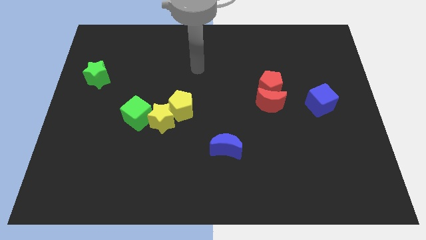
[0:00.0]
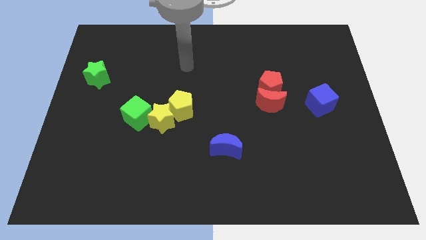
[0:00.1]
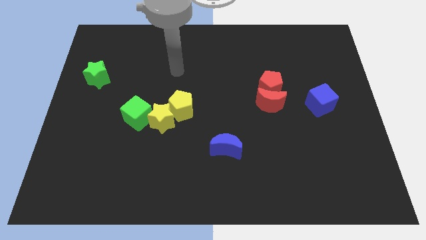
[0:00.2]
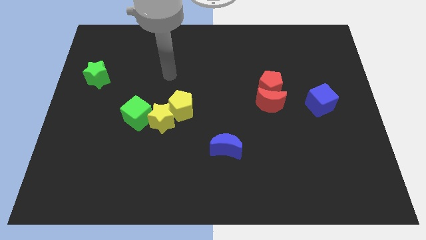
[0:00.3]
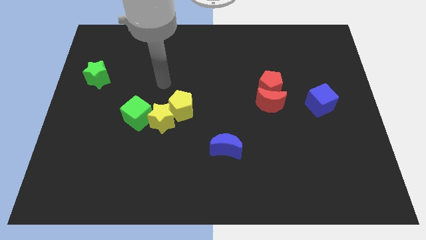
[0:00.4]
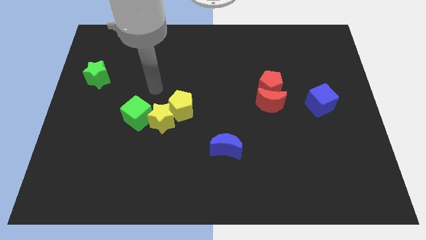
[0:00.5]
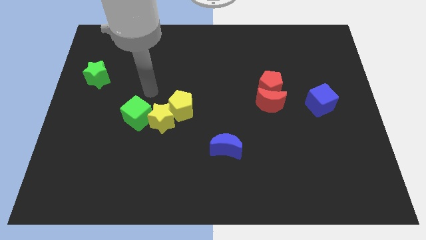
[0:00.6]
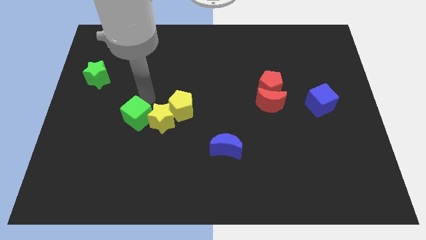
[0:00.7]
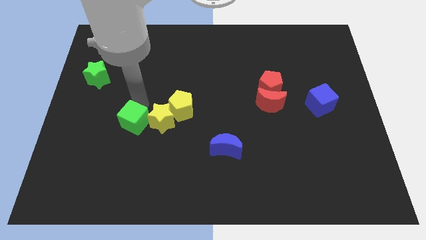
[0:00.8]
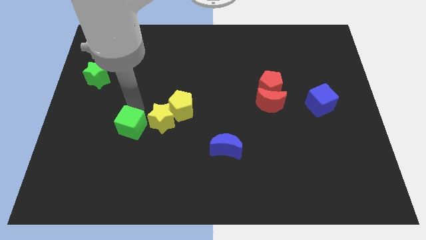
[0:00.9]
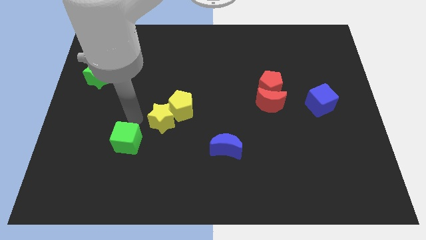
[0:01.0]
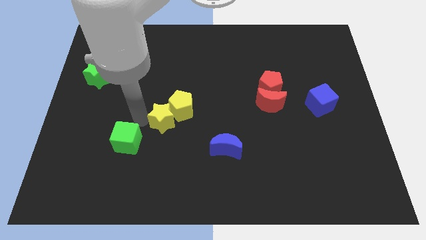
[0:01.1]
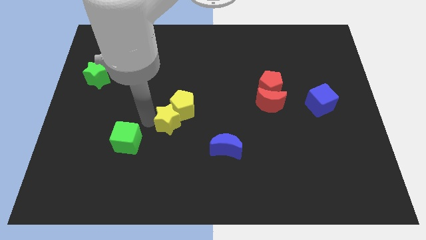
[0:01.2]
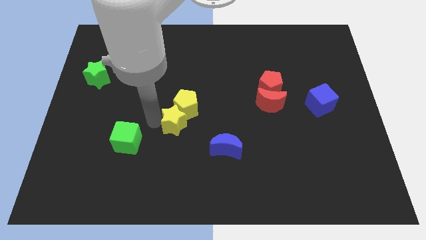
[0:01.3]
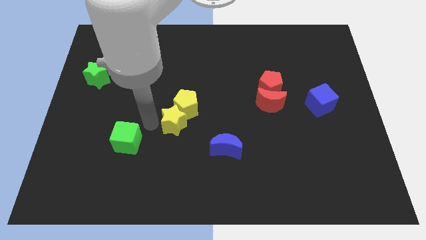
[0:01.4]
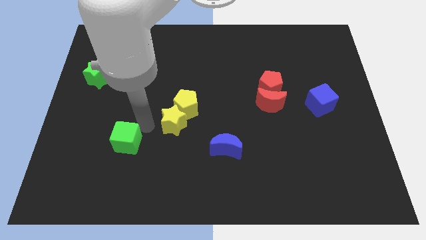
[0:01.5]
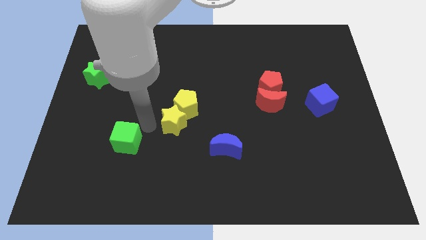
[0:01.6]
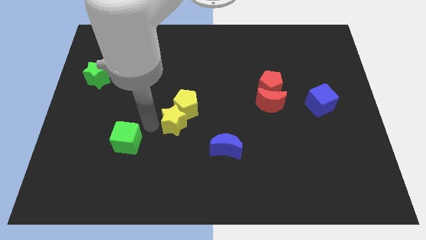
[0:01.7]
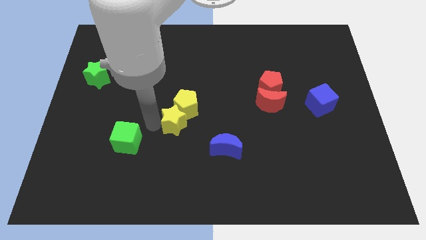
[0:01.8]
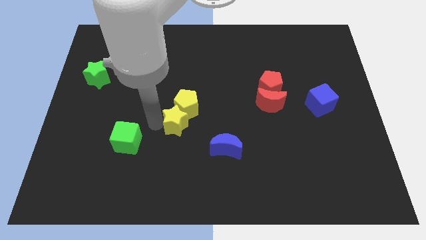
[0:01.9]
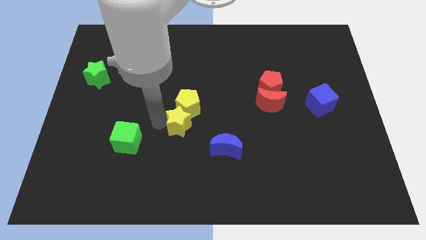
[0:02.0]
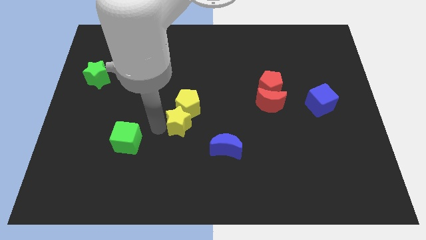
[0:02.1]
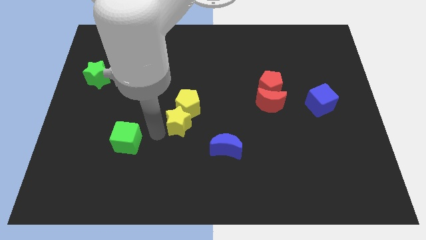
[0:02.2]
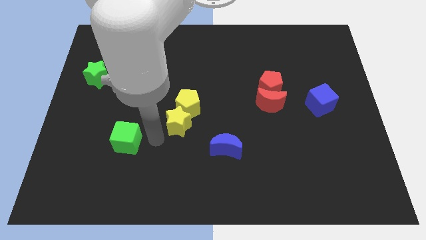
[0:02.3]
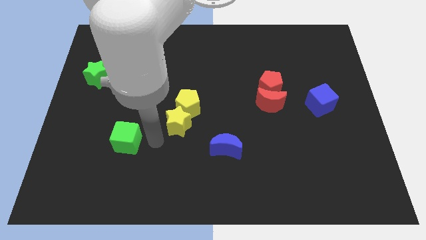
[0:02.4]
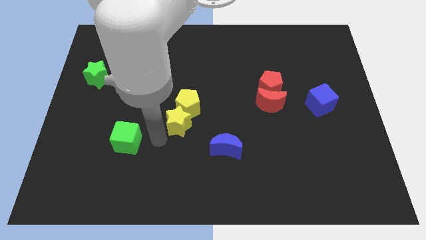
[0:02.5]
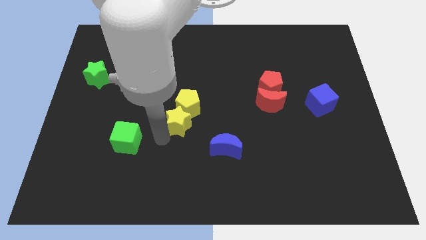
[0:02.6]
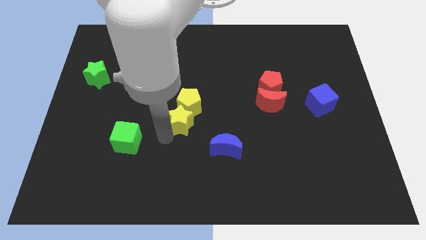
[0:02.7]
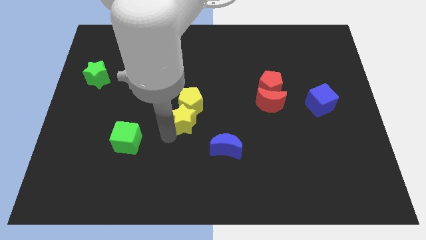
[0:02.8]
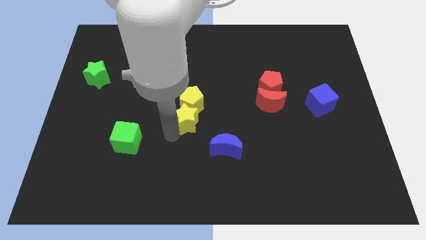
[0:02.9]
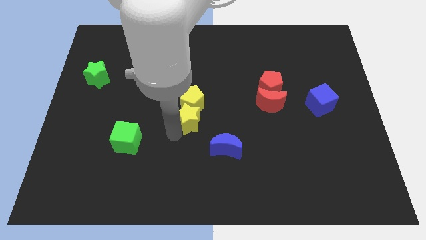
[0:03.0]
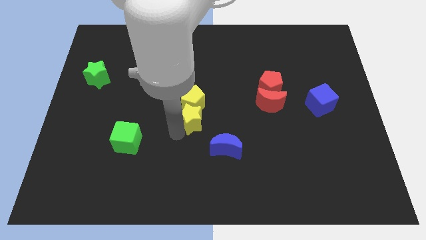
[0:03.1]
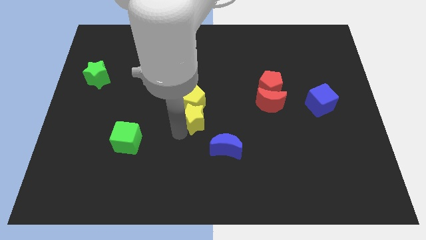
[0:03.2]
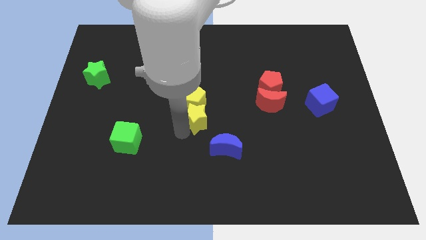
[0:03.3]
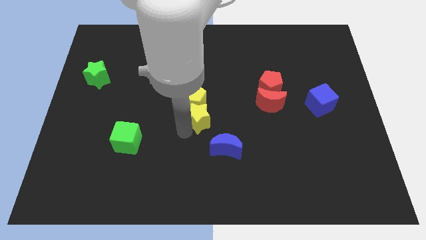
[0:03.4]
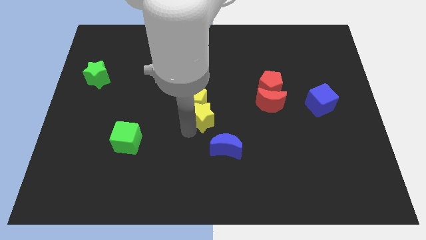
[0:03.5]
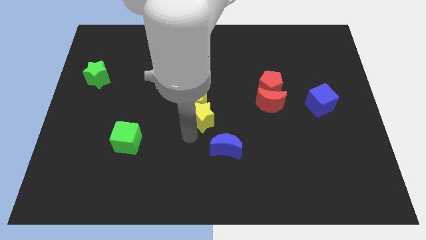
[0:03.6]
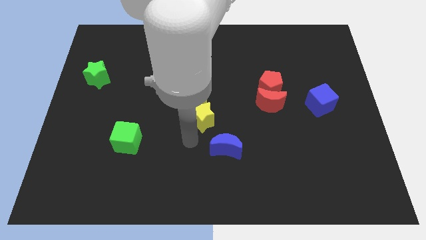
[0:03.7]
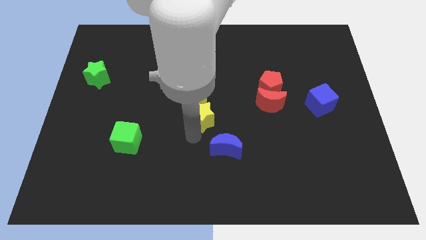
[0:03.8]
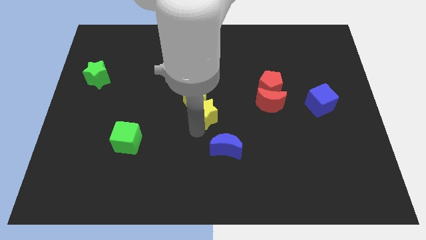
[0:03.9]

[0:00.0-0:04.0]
push the yellow star slightly up and right diagonally

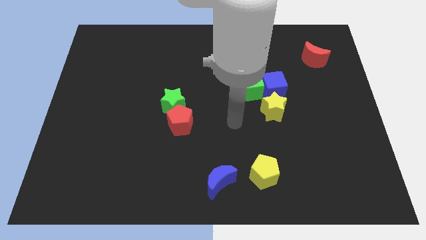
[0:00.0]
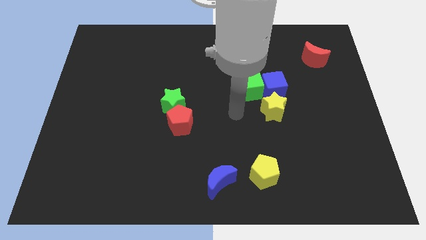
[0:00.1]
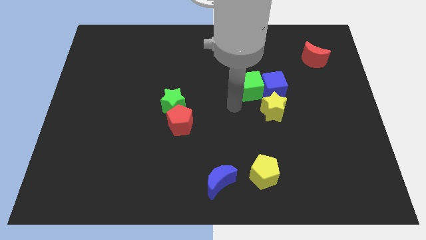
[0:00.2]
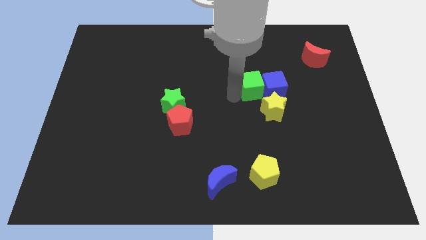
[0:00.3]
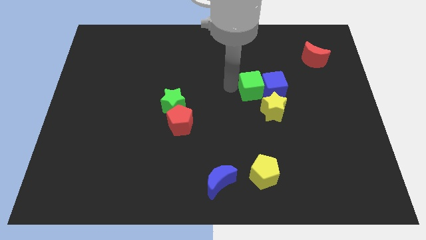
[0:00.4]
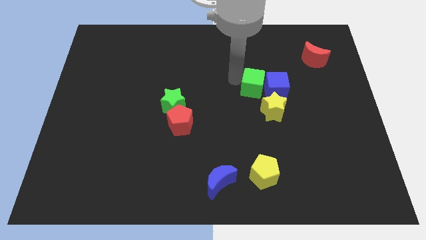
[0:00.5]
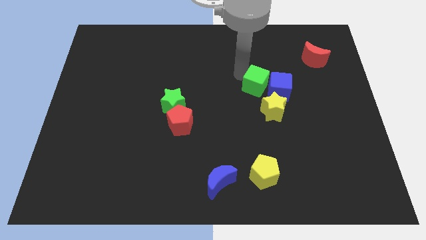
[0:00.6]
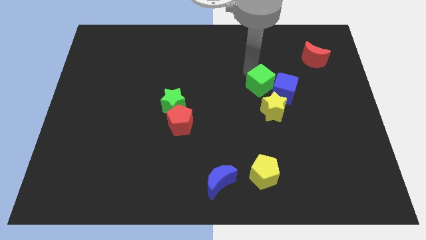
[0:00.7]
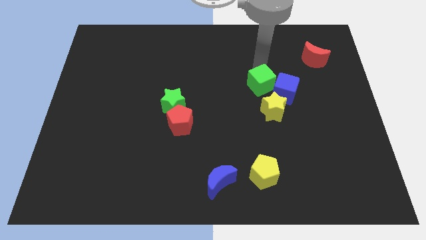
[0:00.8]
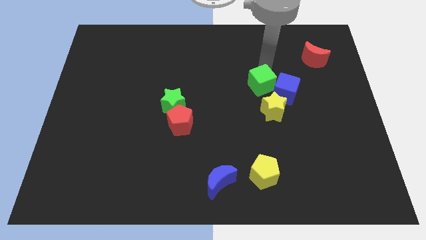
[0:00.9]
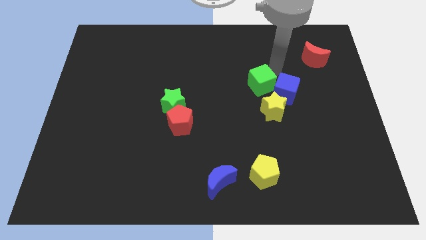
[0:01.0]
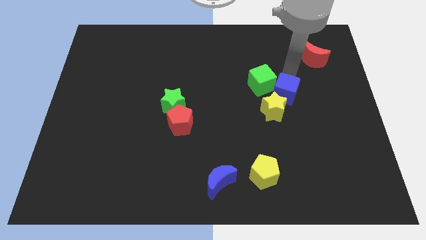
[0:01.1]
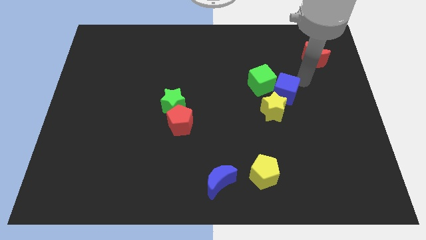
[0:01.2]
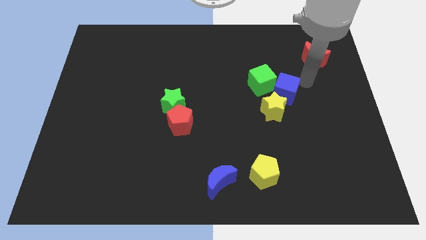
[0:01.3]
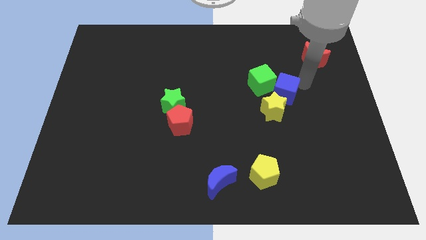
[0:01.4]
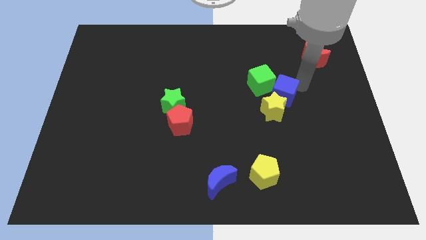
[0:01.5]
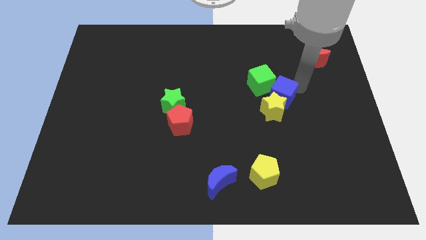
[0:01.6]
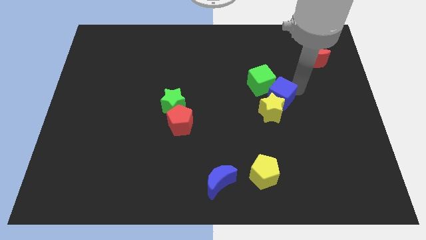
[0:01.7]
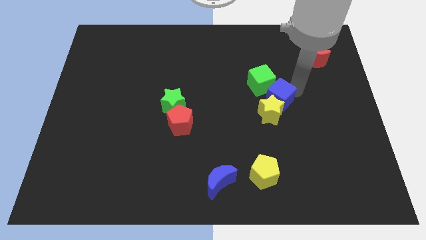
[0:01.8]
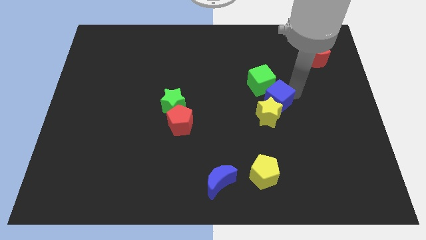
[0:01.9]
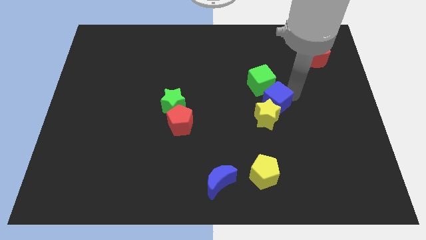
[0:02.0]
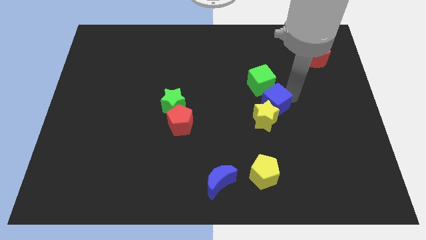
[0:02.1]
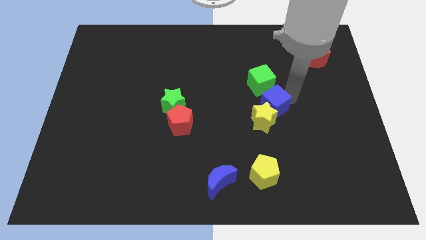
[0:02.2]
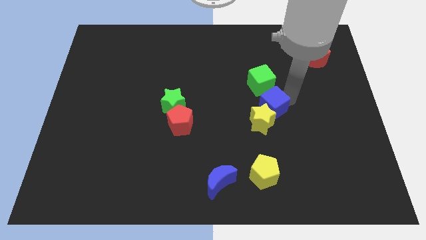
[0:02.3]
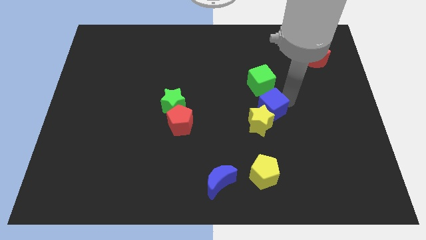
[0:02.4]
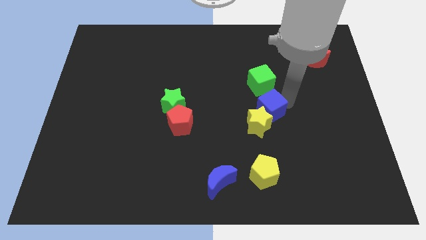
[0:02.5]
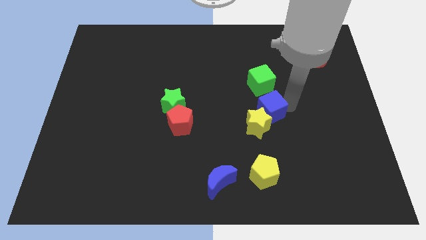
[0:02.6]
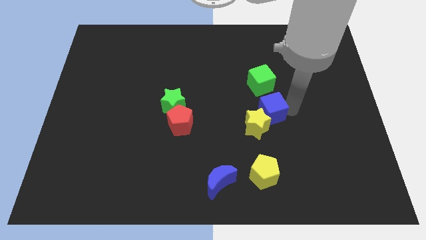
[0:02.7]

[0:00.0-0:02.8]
slightly push the blue cube down

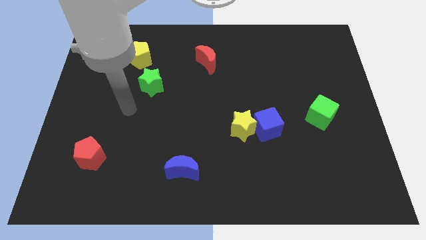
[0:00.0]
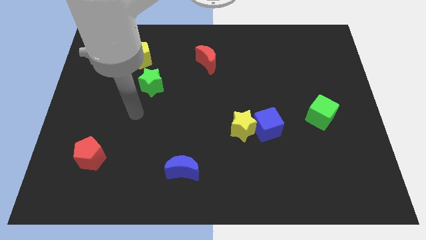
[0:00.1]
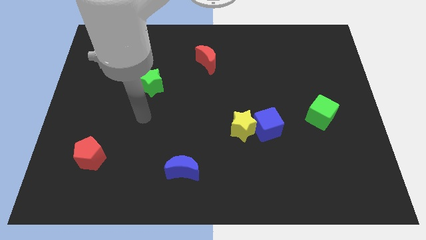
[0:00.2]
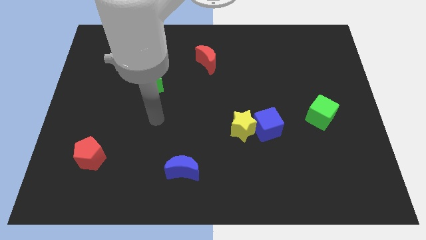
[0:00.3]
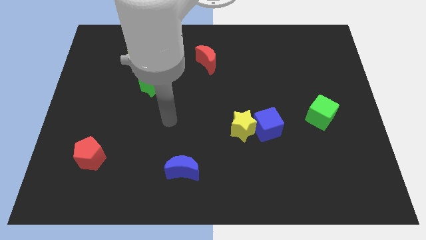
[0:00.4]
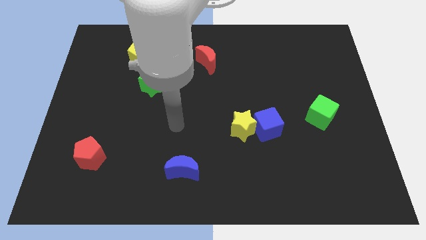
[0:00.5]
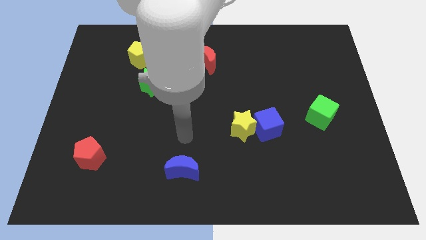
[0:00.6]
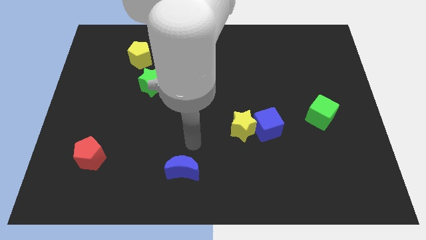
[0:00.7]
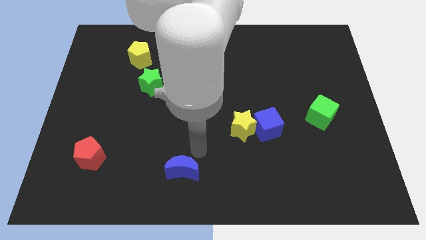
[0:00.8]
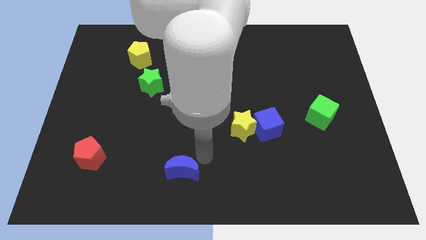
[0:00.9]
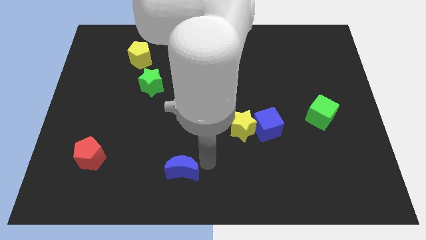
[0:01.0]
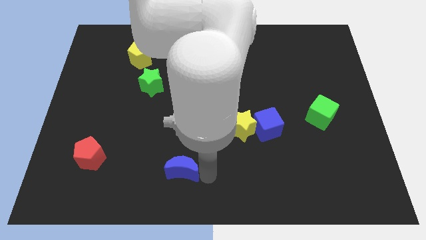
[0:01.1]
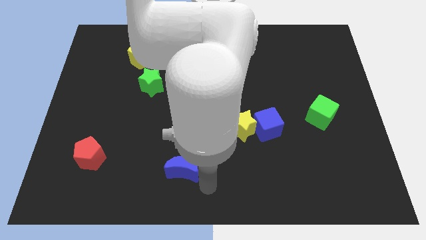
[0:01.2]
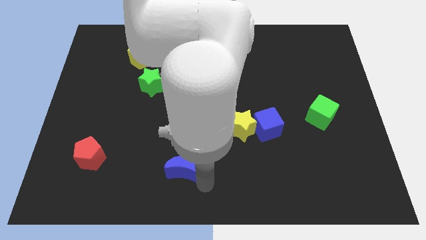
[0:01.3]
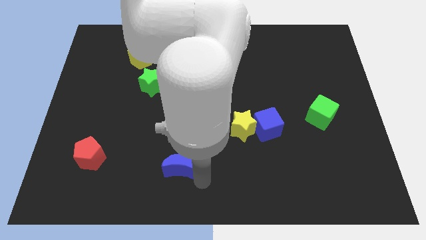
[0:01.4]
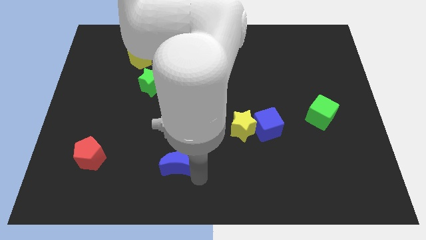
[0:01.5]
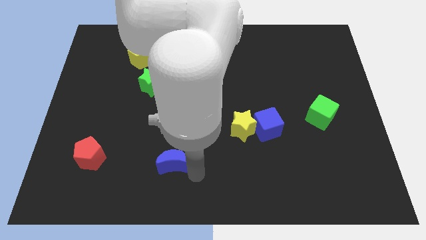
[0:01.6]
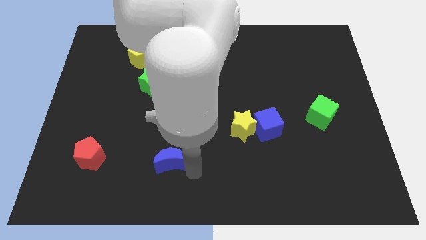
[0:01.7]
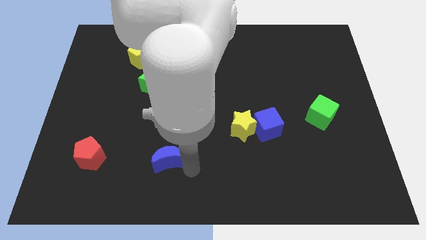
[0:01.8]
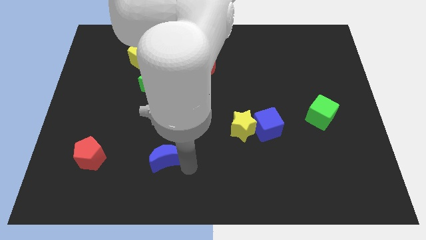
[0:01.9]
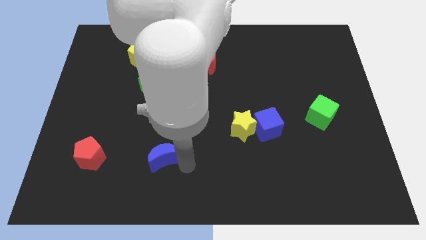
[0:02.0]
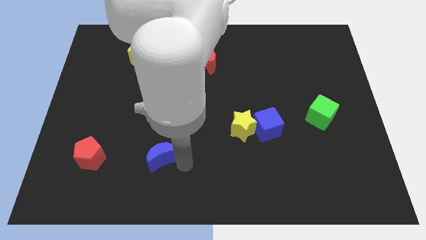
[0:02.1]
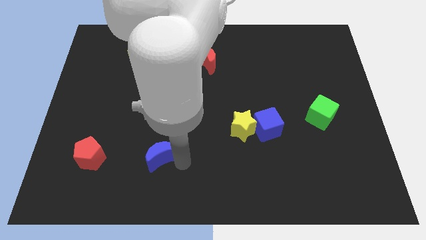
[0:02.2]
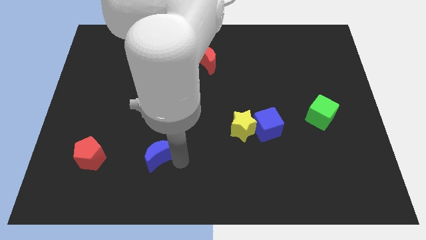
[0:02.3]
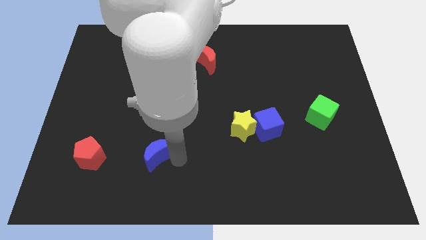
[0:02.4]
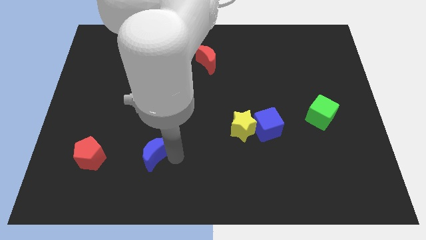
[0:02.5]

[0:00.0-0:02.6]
push the blue moon a bit up and then to the left
